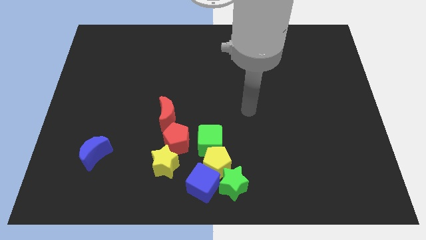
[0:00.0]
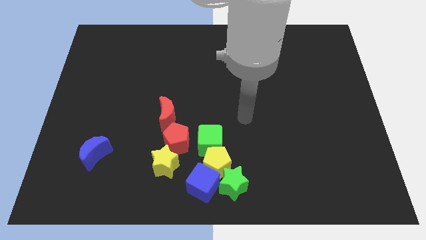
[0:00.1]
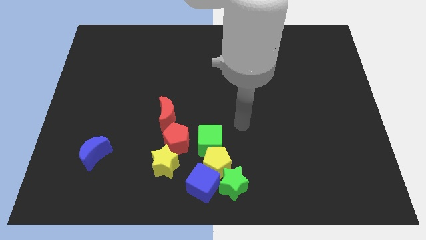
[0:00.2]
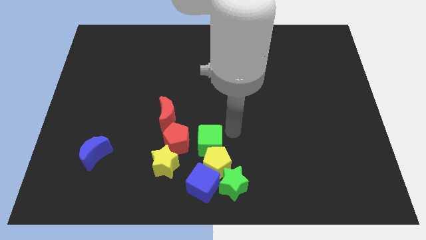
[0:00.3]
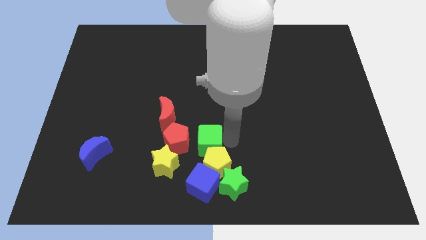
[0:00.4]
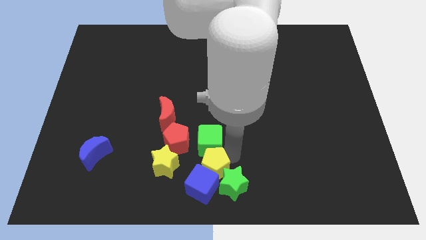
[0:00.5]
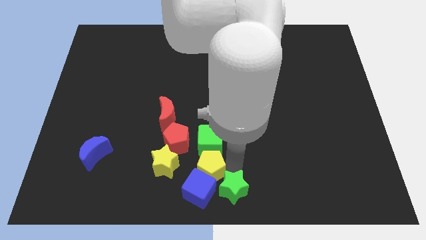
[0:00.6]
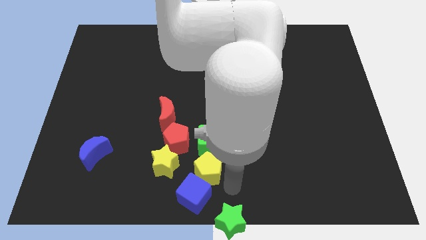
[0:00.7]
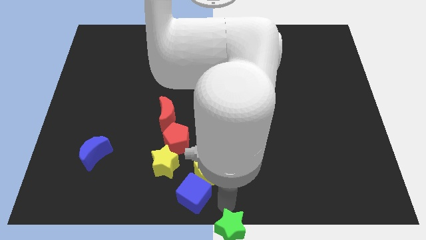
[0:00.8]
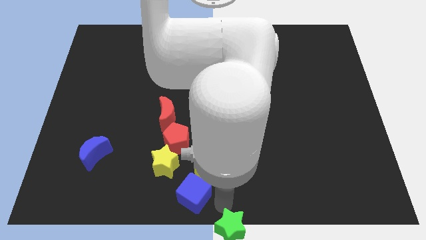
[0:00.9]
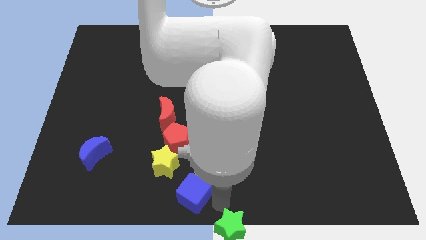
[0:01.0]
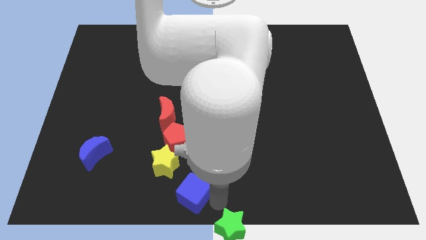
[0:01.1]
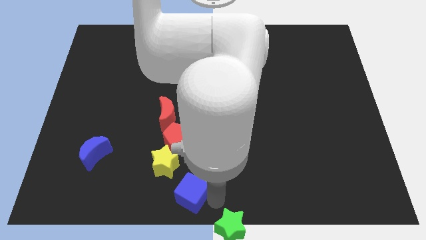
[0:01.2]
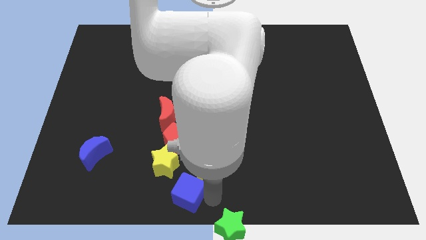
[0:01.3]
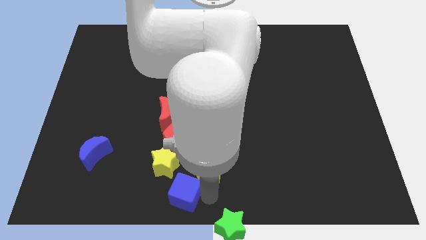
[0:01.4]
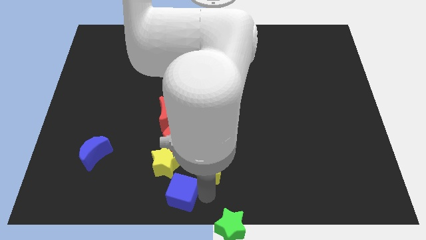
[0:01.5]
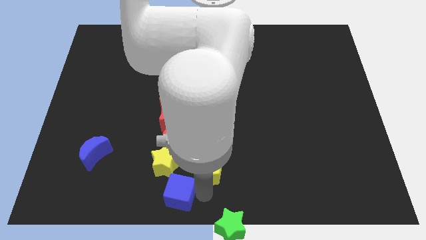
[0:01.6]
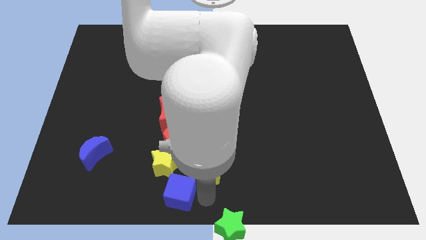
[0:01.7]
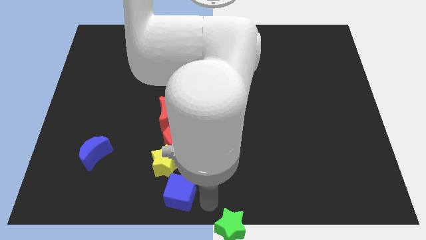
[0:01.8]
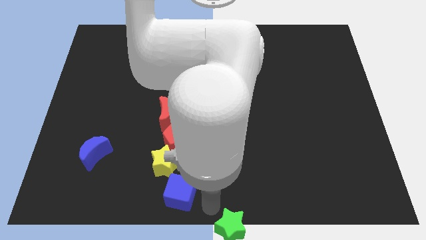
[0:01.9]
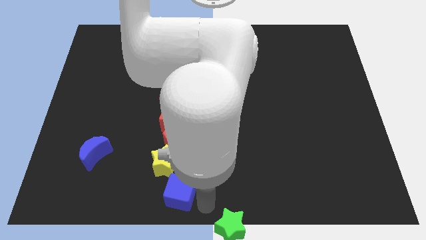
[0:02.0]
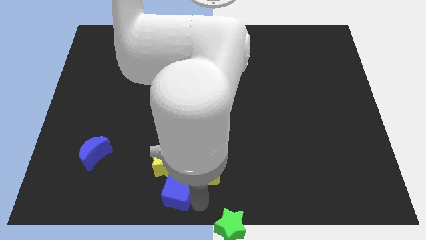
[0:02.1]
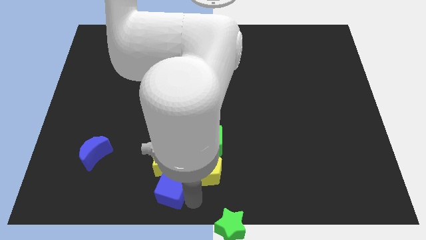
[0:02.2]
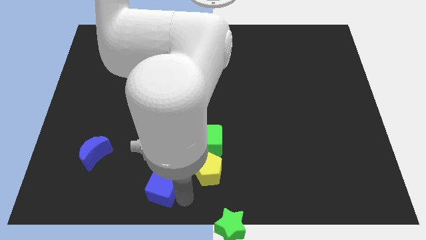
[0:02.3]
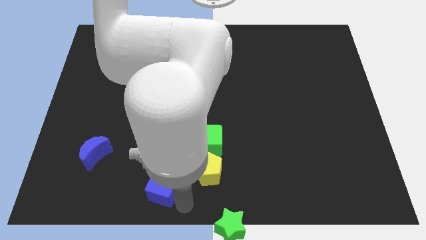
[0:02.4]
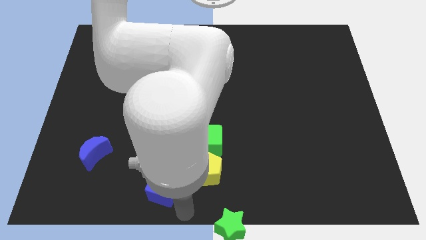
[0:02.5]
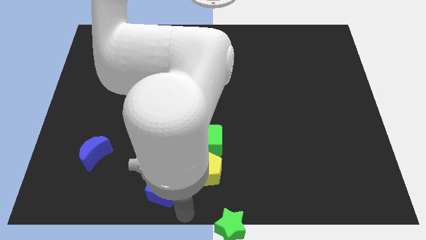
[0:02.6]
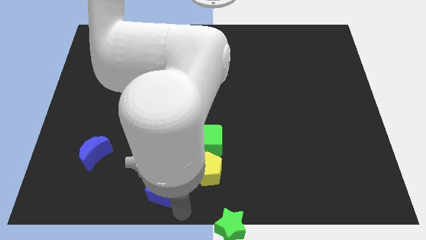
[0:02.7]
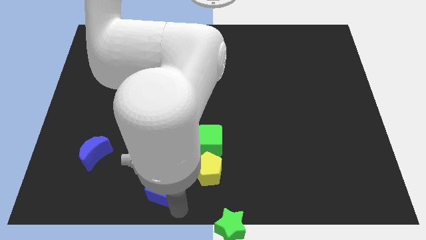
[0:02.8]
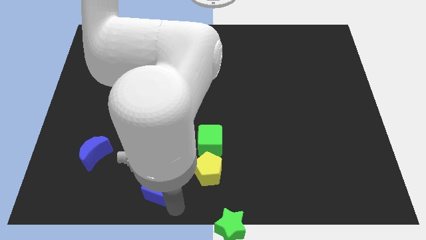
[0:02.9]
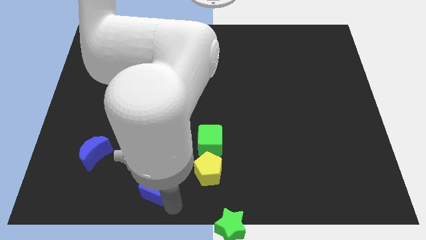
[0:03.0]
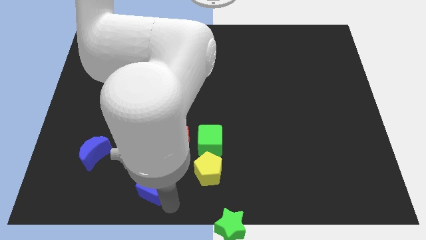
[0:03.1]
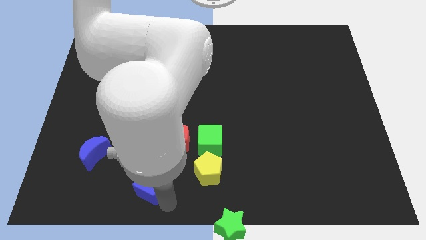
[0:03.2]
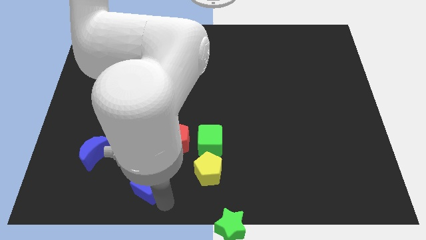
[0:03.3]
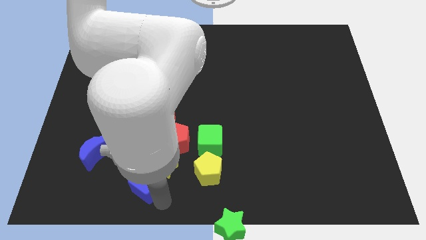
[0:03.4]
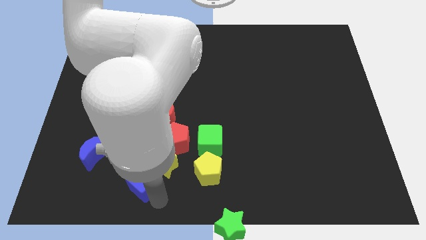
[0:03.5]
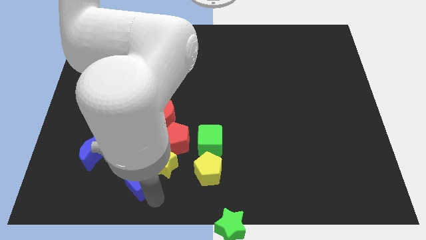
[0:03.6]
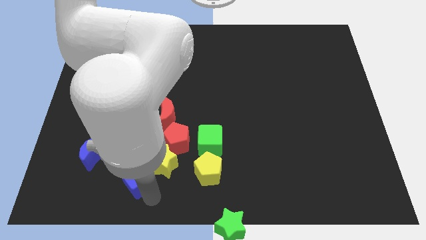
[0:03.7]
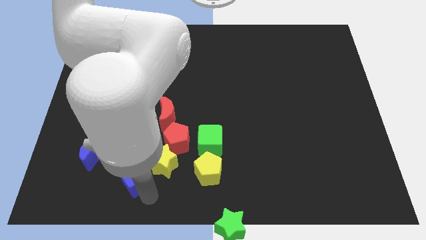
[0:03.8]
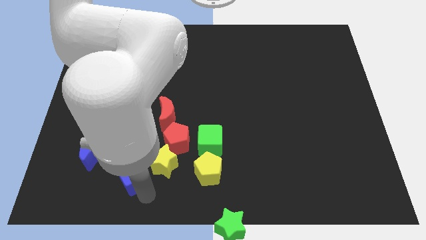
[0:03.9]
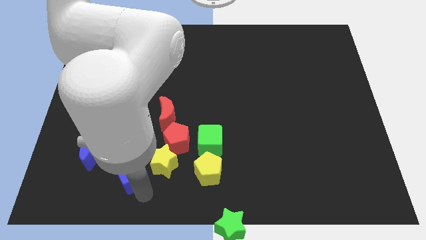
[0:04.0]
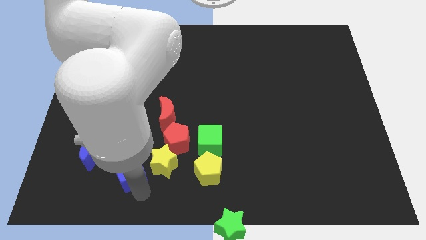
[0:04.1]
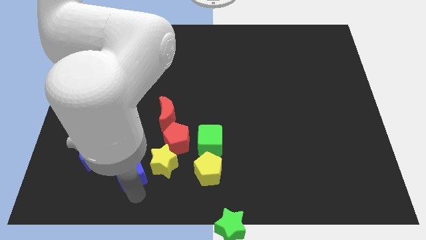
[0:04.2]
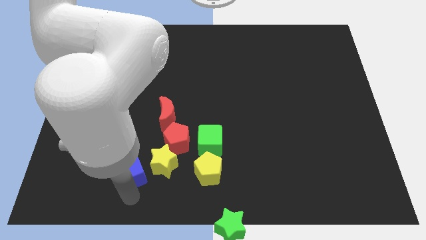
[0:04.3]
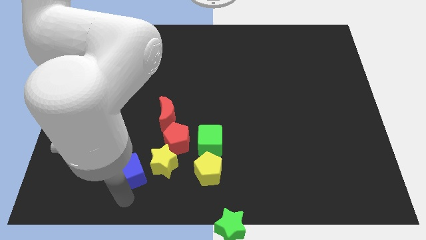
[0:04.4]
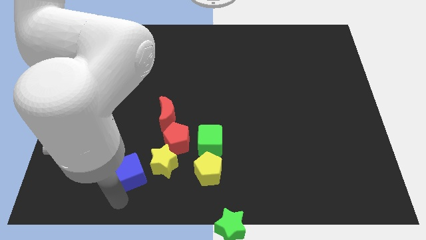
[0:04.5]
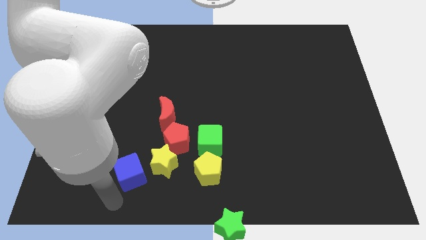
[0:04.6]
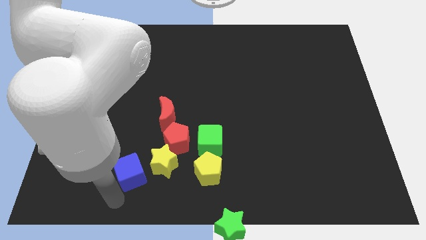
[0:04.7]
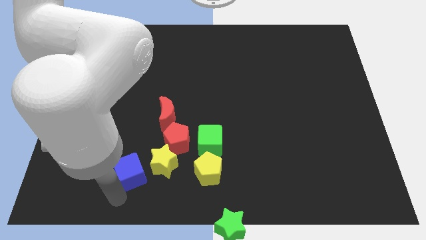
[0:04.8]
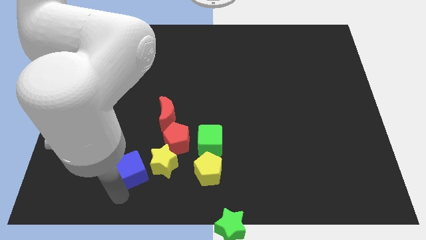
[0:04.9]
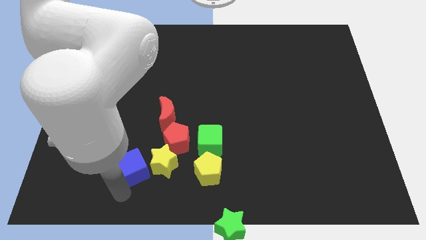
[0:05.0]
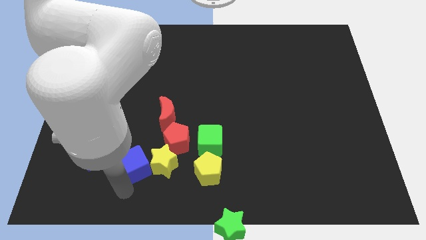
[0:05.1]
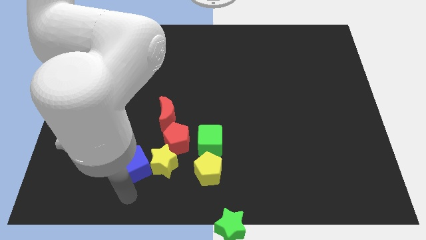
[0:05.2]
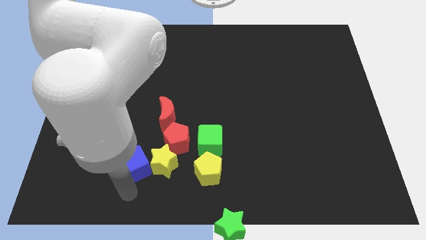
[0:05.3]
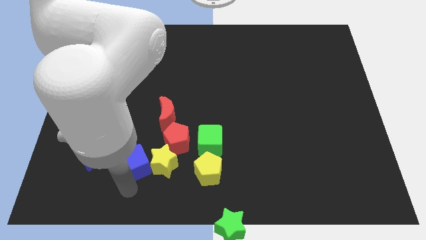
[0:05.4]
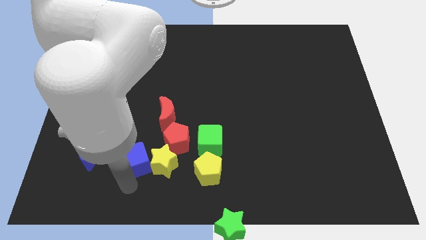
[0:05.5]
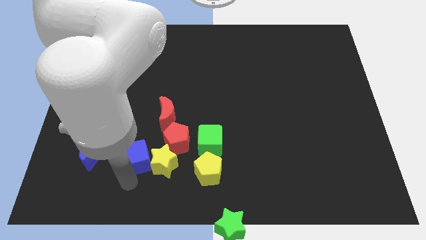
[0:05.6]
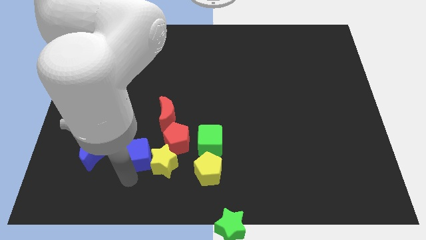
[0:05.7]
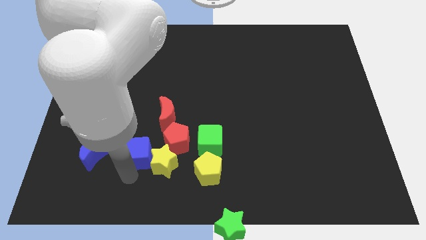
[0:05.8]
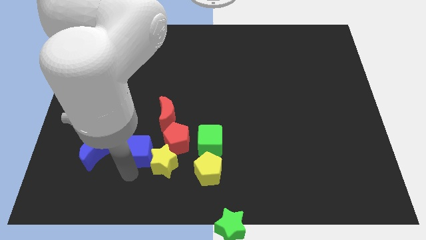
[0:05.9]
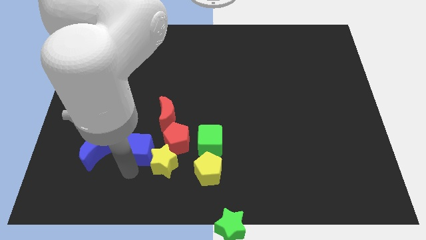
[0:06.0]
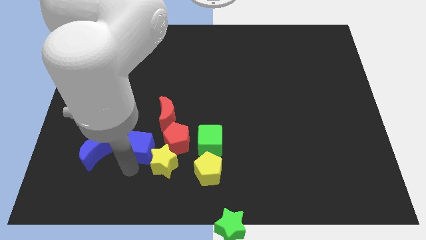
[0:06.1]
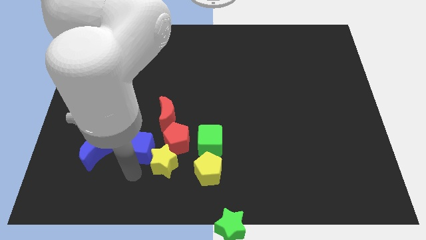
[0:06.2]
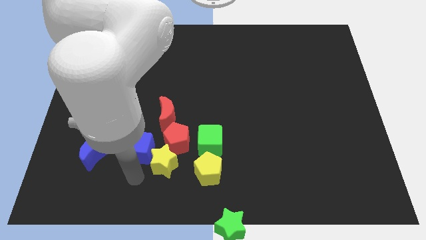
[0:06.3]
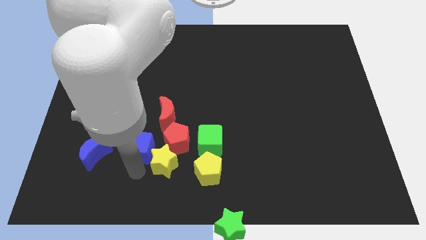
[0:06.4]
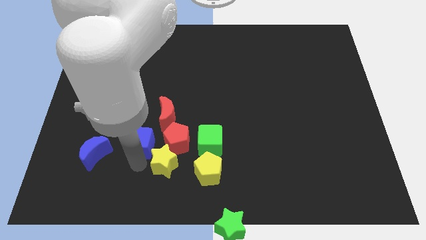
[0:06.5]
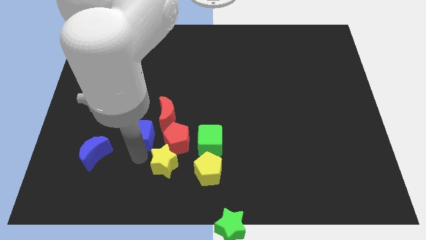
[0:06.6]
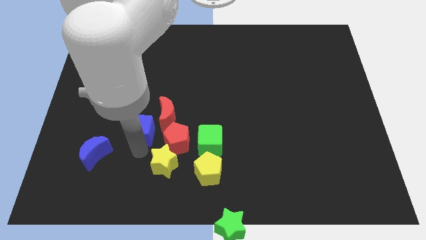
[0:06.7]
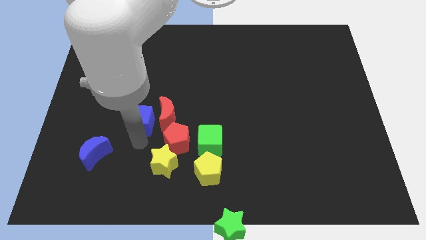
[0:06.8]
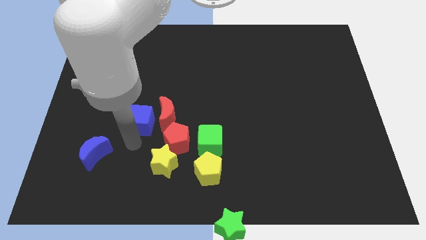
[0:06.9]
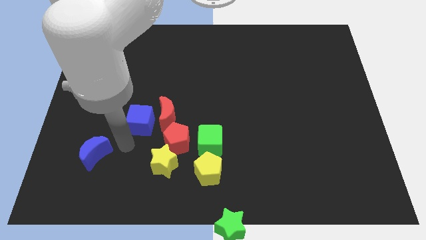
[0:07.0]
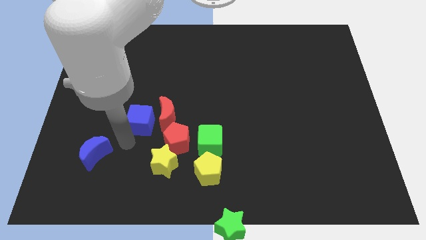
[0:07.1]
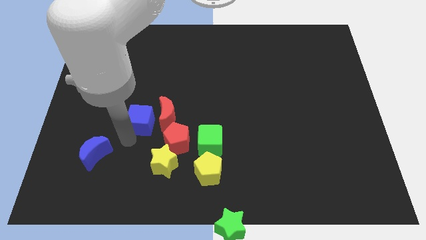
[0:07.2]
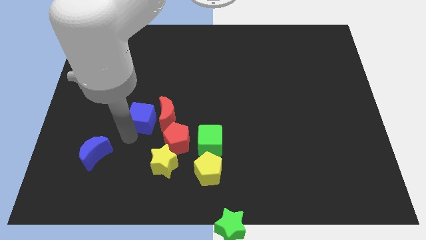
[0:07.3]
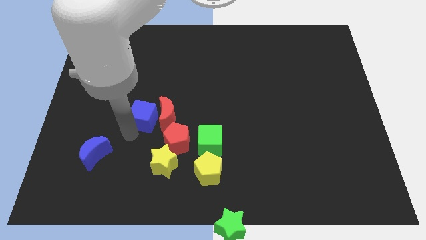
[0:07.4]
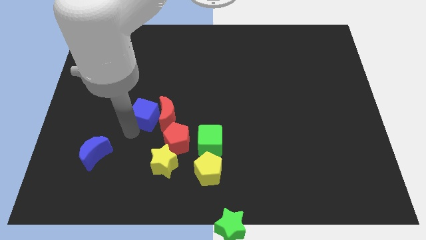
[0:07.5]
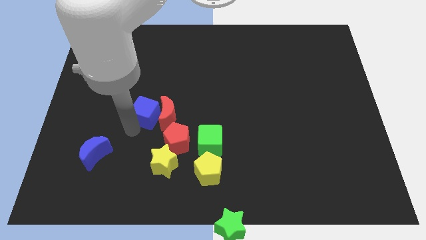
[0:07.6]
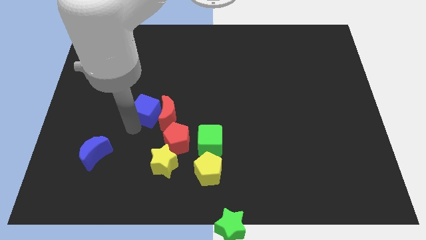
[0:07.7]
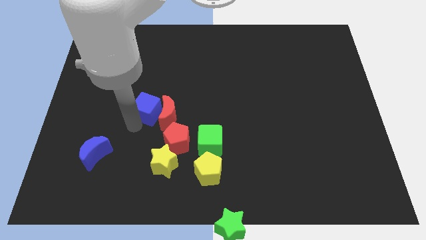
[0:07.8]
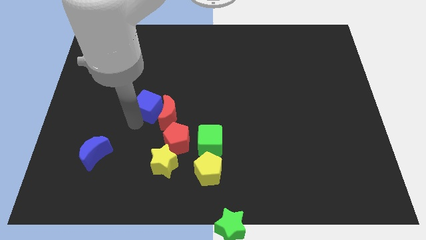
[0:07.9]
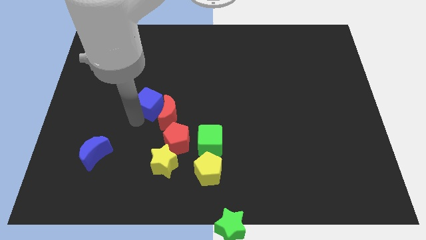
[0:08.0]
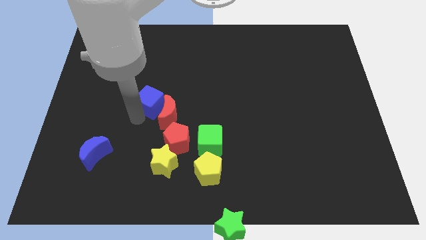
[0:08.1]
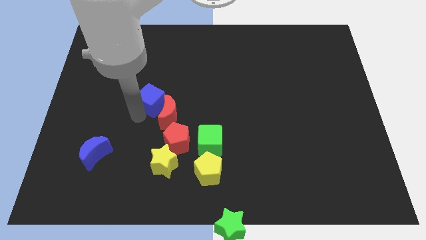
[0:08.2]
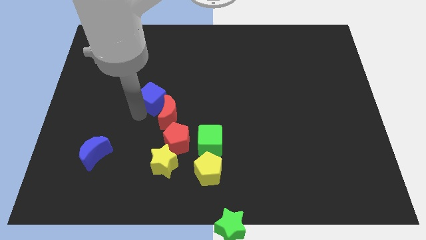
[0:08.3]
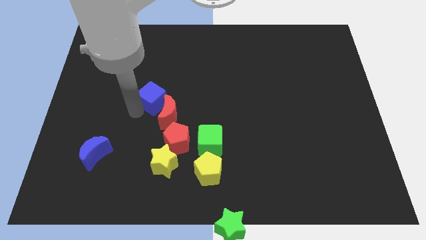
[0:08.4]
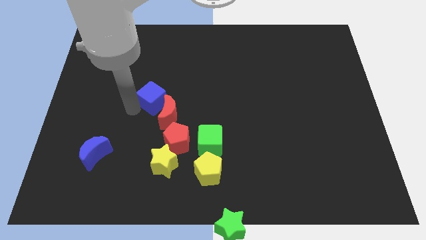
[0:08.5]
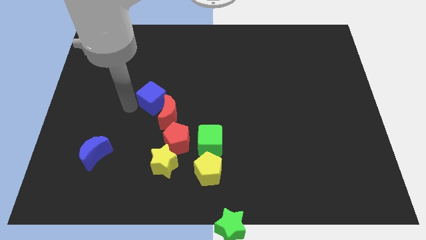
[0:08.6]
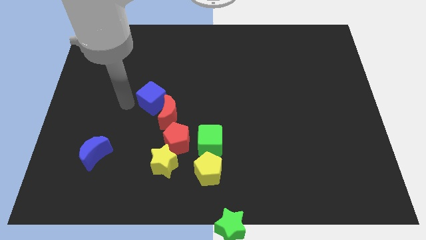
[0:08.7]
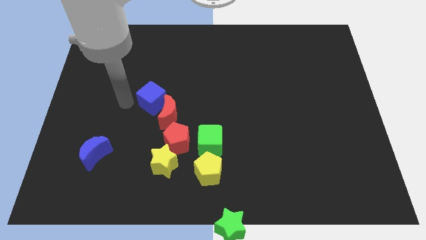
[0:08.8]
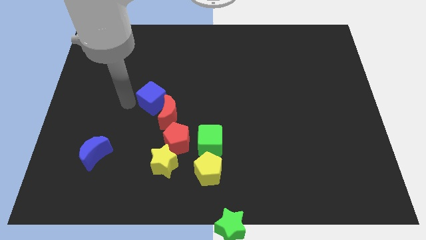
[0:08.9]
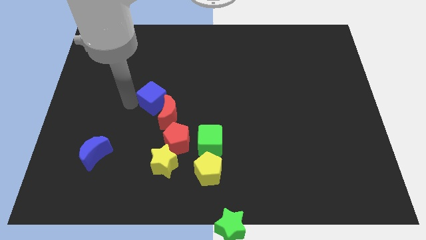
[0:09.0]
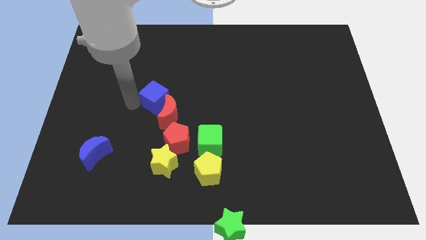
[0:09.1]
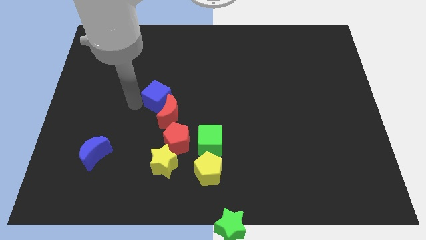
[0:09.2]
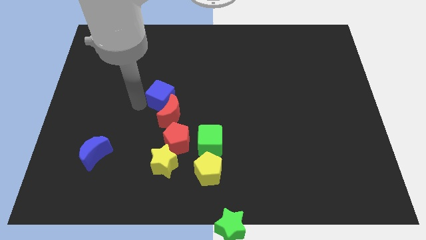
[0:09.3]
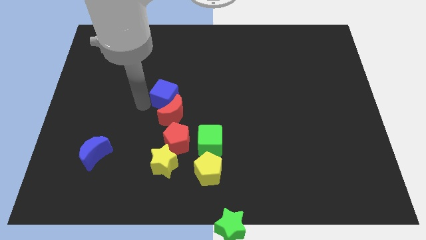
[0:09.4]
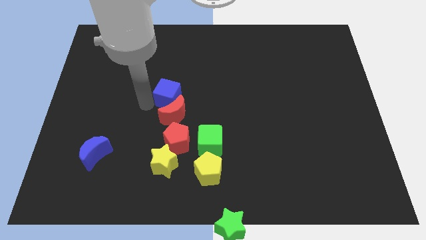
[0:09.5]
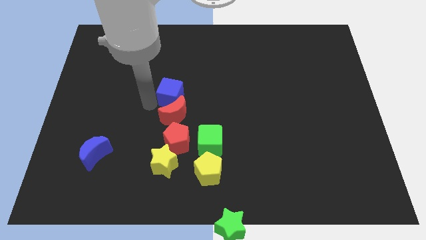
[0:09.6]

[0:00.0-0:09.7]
push the blue cube diagonally up and to the right of the red moon
